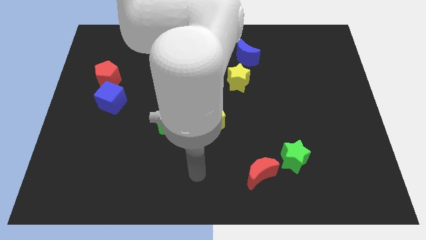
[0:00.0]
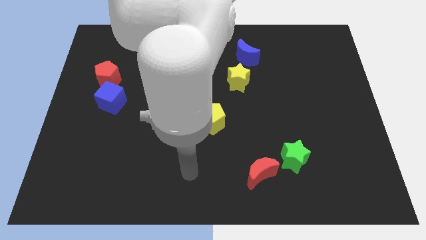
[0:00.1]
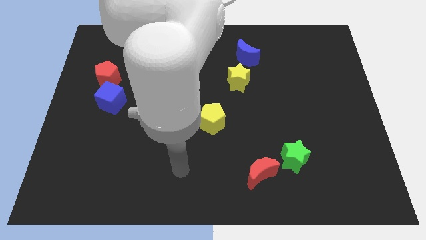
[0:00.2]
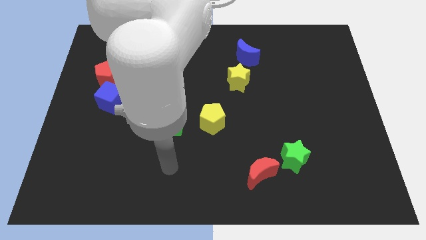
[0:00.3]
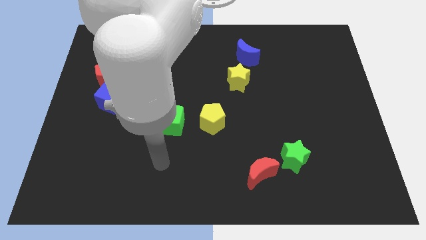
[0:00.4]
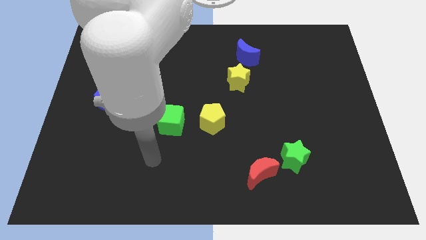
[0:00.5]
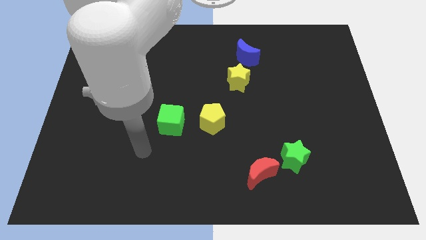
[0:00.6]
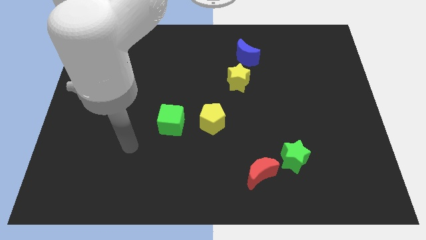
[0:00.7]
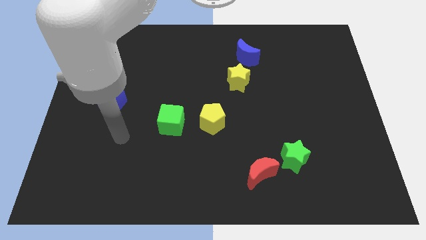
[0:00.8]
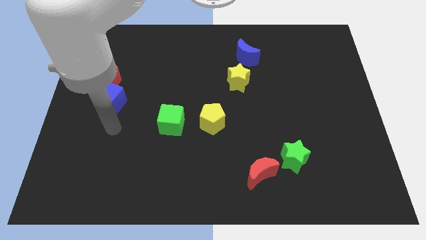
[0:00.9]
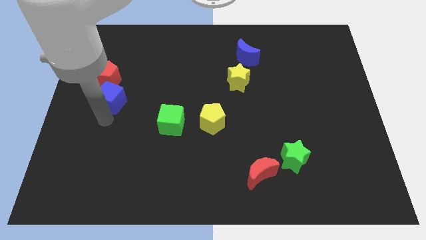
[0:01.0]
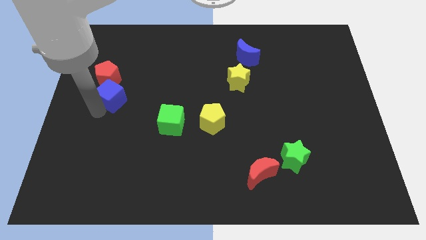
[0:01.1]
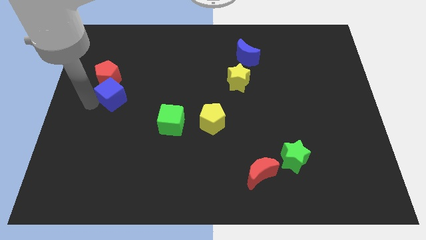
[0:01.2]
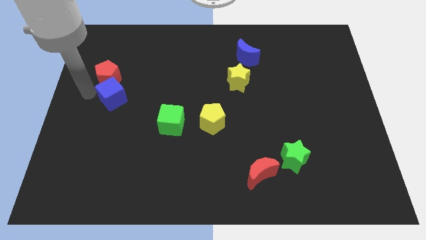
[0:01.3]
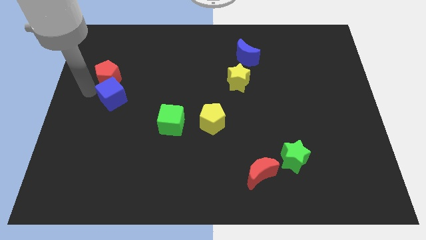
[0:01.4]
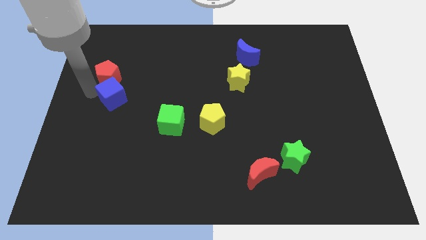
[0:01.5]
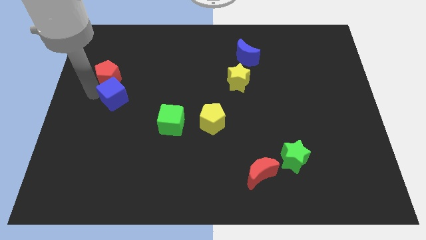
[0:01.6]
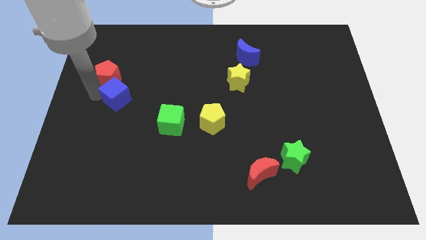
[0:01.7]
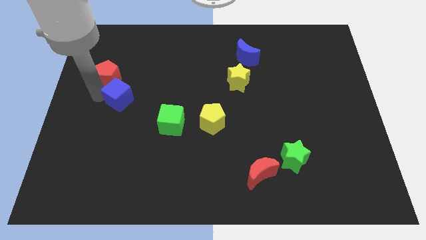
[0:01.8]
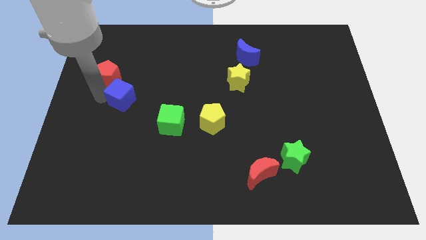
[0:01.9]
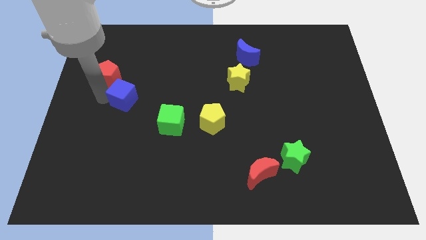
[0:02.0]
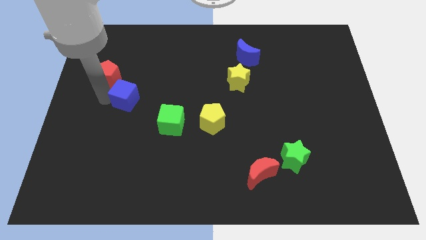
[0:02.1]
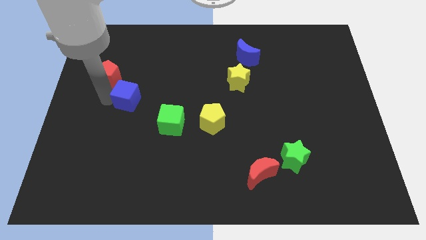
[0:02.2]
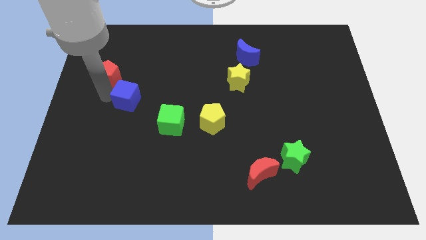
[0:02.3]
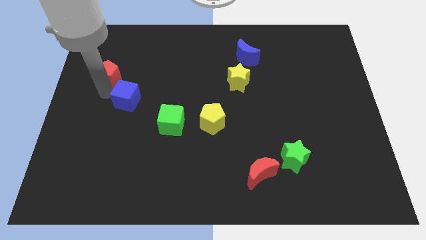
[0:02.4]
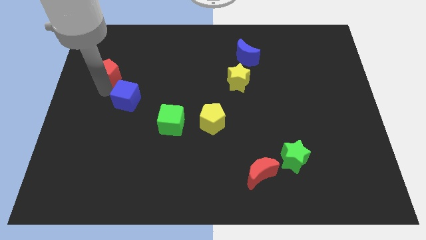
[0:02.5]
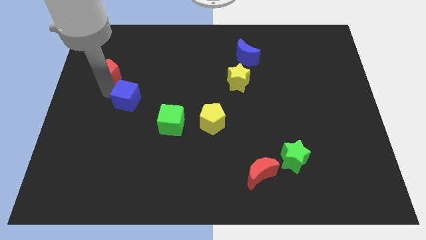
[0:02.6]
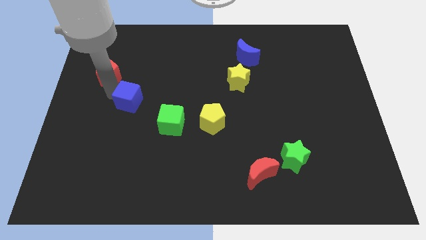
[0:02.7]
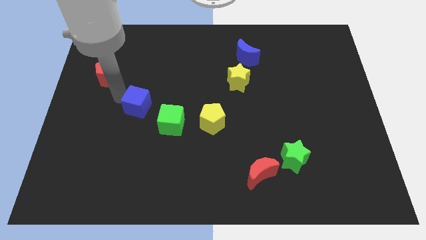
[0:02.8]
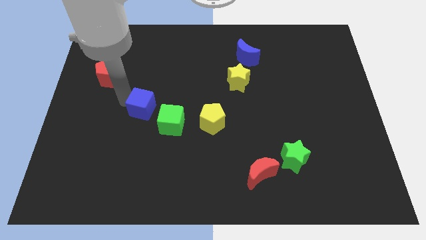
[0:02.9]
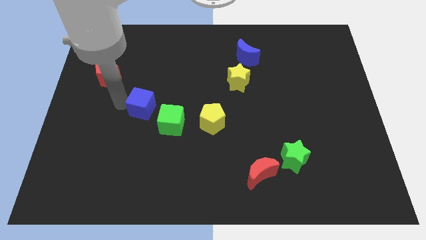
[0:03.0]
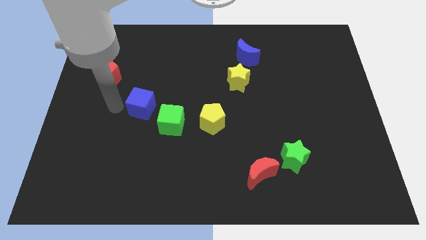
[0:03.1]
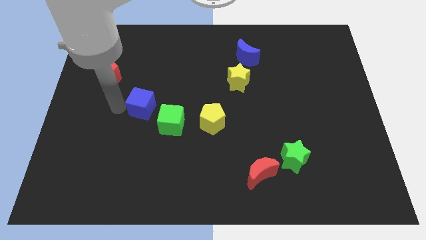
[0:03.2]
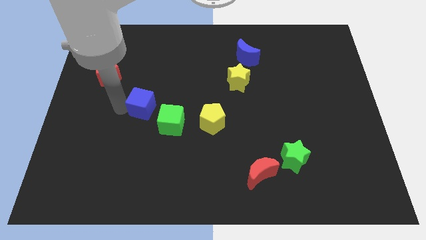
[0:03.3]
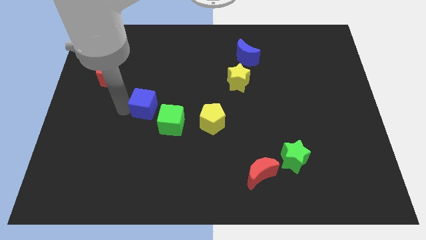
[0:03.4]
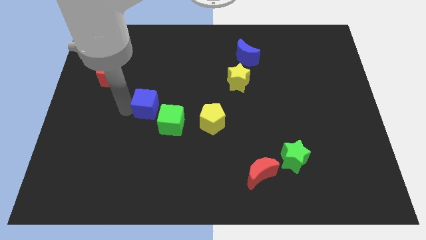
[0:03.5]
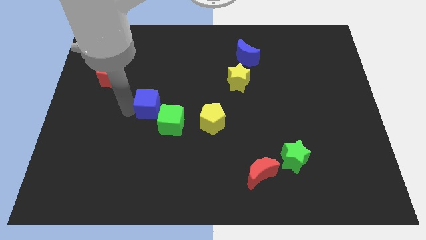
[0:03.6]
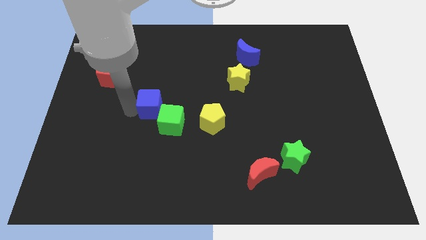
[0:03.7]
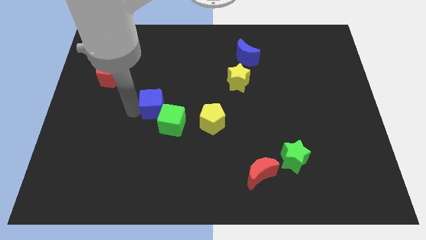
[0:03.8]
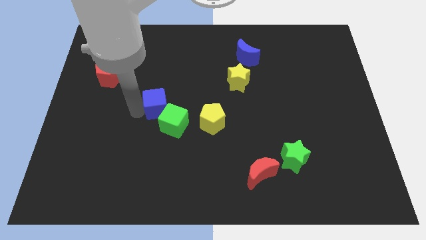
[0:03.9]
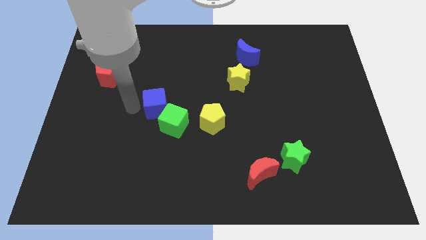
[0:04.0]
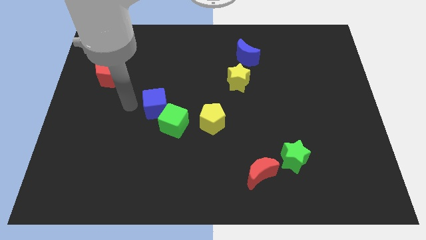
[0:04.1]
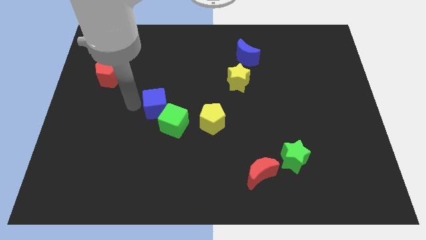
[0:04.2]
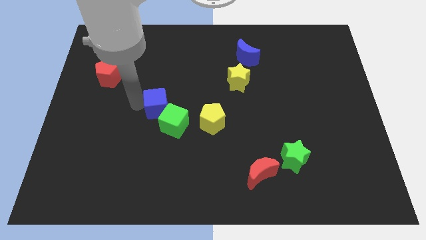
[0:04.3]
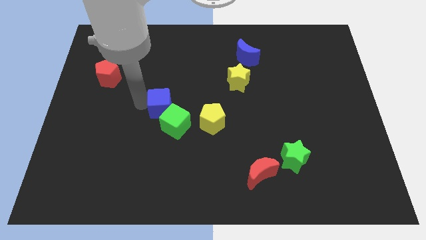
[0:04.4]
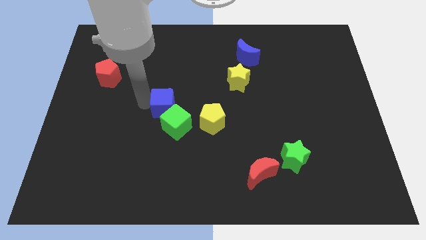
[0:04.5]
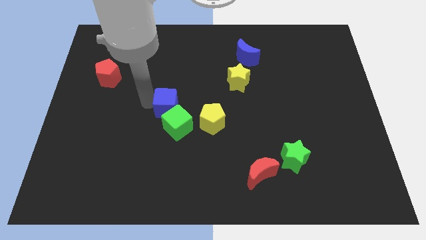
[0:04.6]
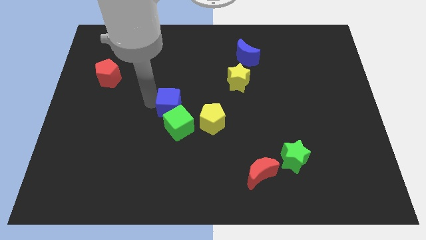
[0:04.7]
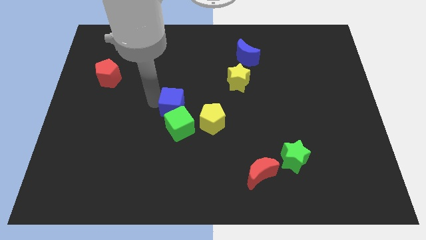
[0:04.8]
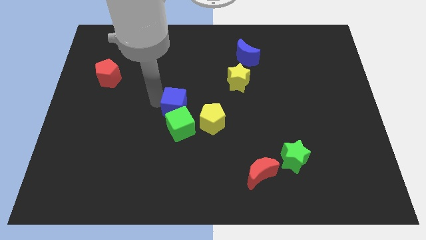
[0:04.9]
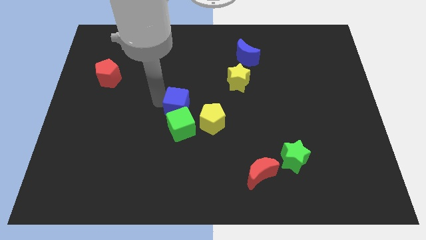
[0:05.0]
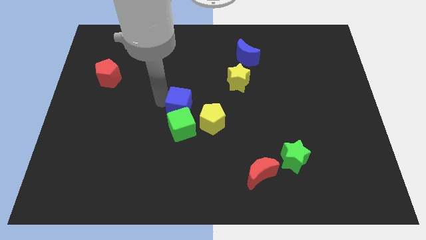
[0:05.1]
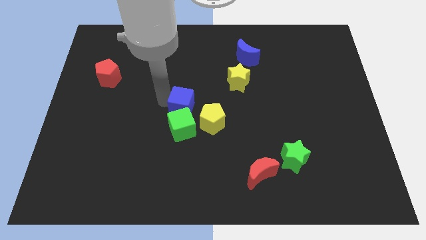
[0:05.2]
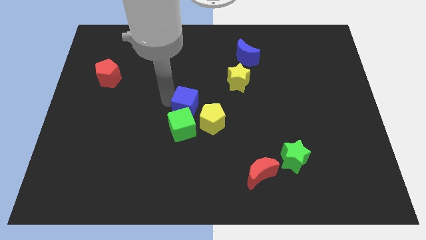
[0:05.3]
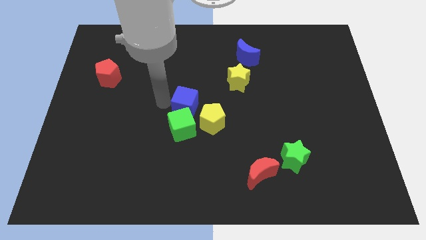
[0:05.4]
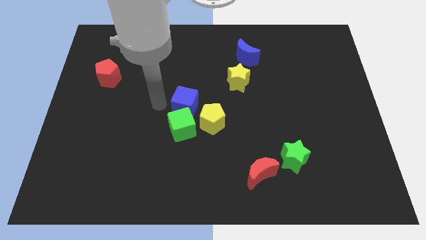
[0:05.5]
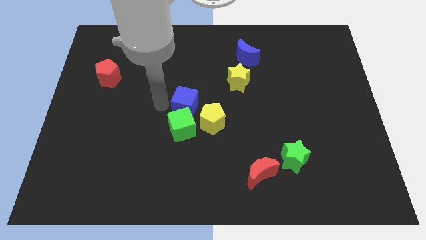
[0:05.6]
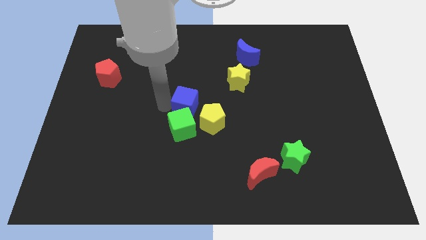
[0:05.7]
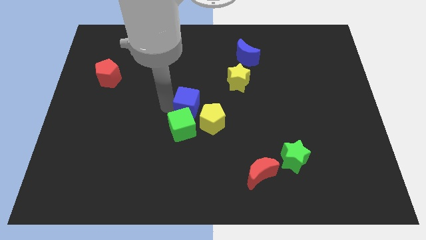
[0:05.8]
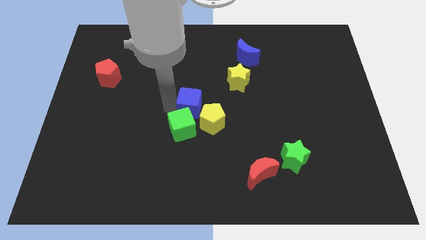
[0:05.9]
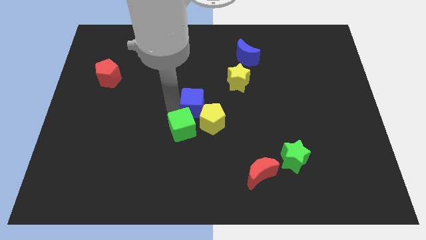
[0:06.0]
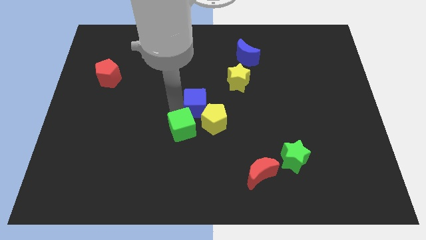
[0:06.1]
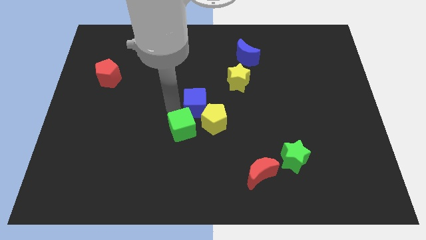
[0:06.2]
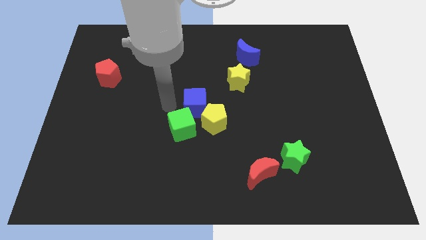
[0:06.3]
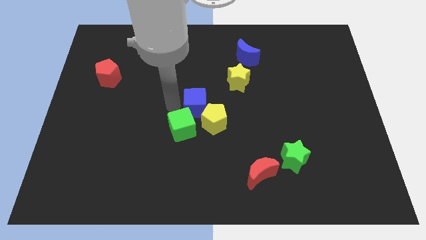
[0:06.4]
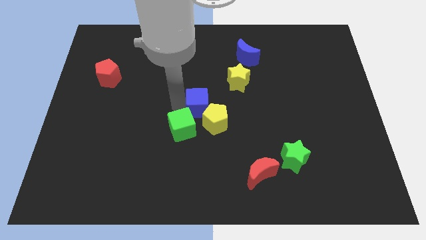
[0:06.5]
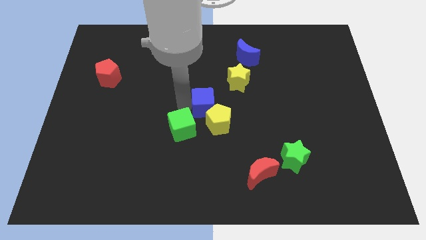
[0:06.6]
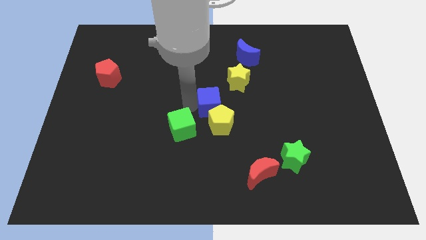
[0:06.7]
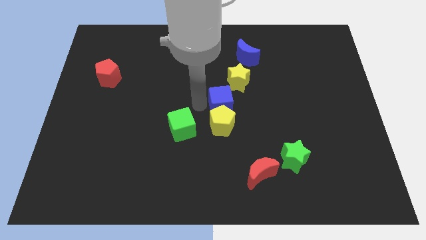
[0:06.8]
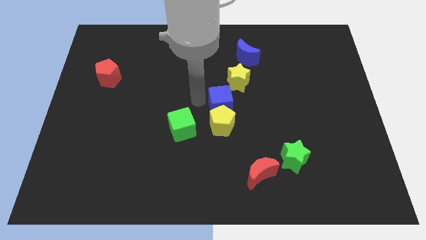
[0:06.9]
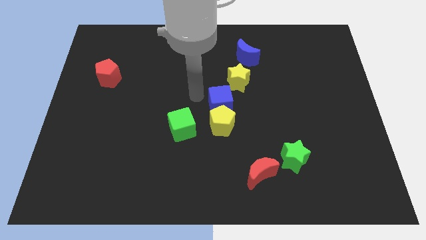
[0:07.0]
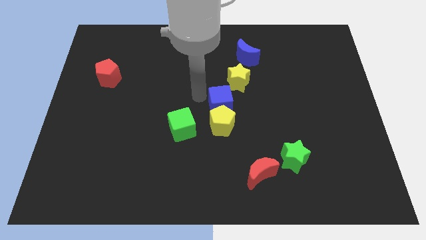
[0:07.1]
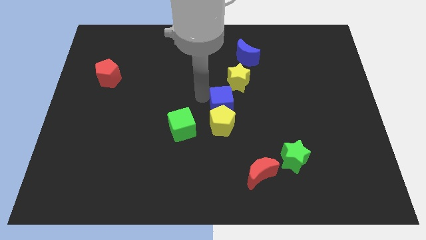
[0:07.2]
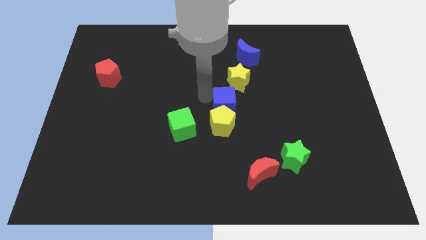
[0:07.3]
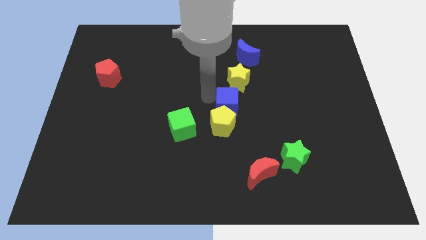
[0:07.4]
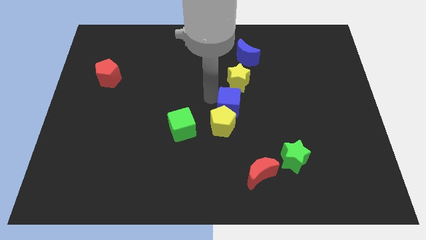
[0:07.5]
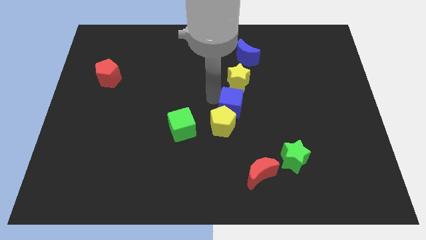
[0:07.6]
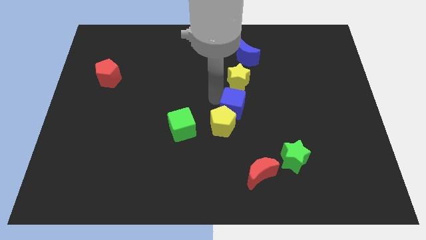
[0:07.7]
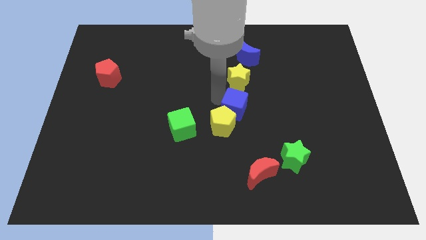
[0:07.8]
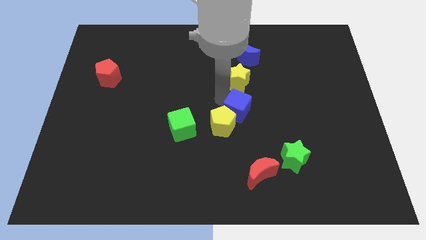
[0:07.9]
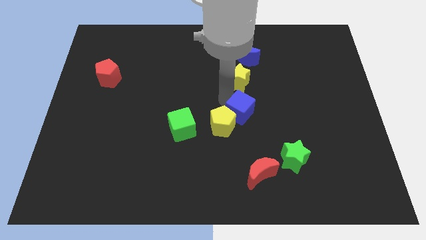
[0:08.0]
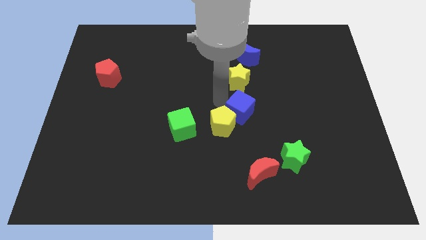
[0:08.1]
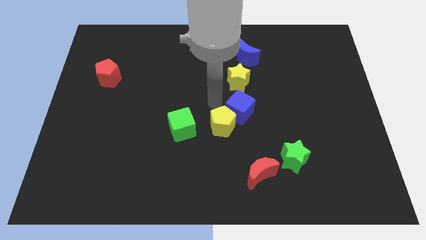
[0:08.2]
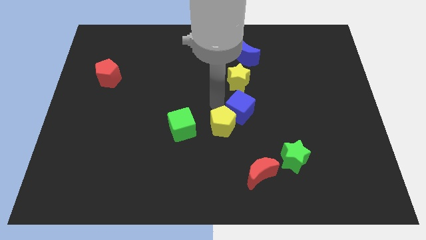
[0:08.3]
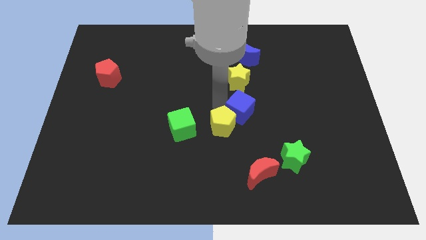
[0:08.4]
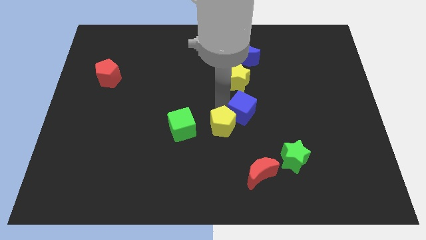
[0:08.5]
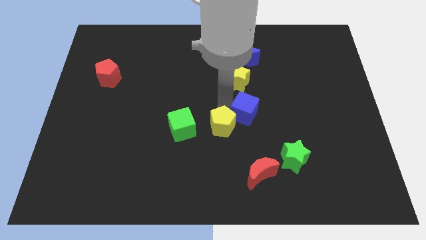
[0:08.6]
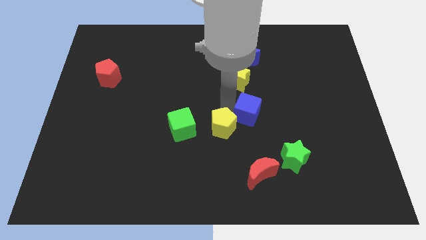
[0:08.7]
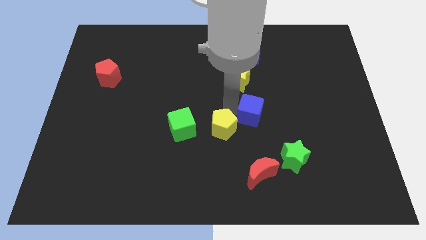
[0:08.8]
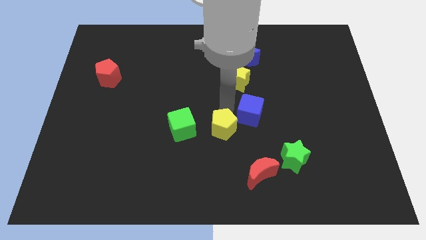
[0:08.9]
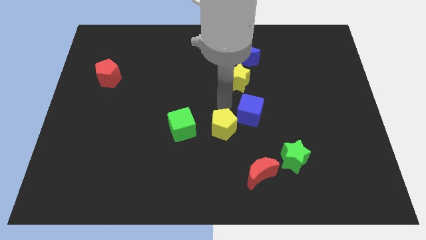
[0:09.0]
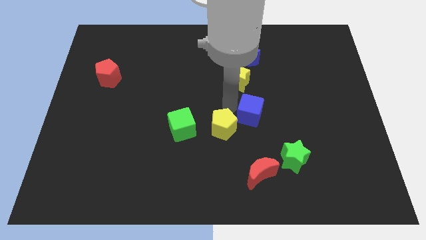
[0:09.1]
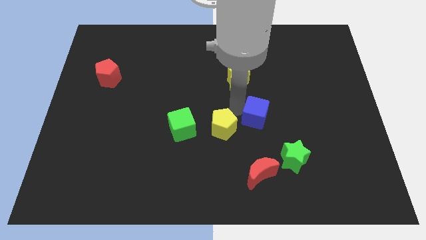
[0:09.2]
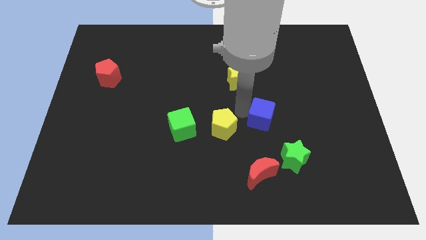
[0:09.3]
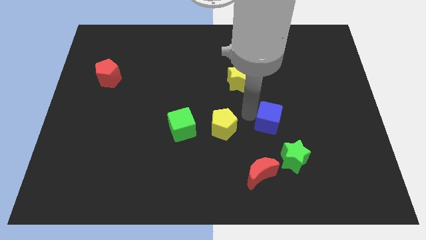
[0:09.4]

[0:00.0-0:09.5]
slide the blue cube to the top side of the green star
